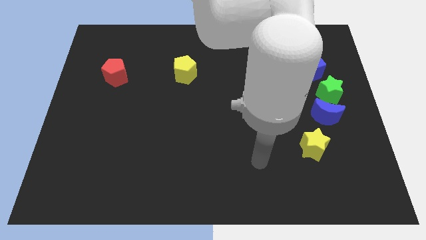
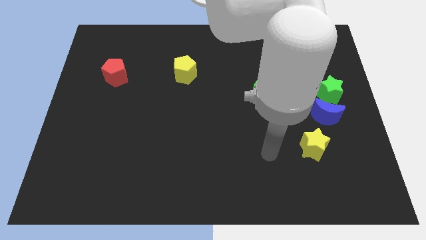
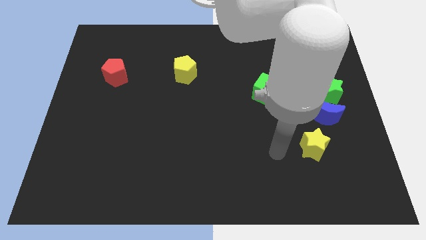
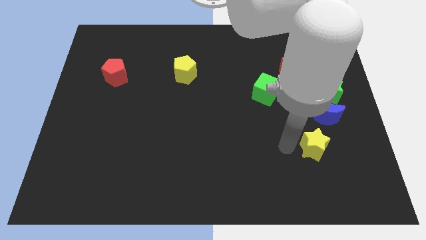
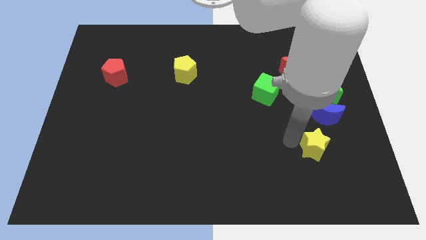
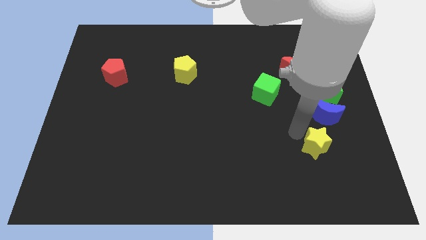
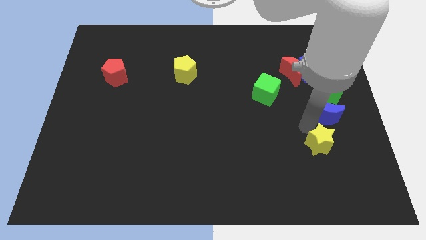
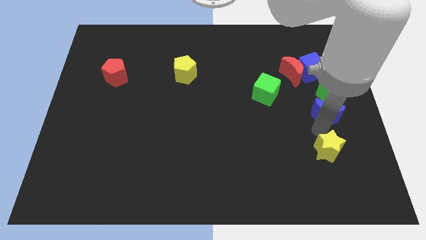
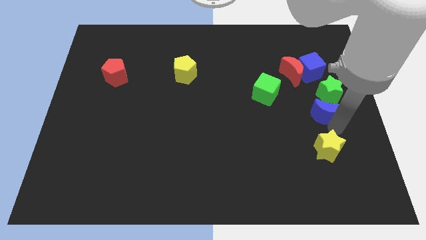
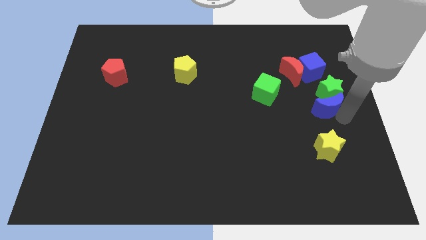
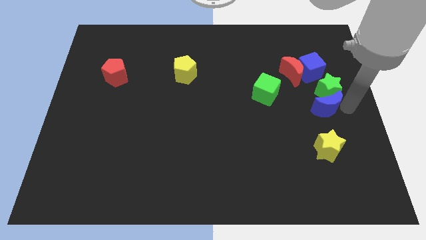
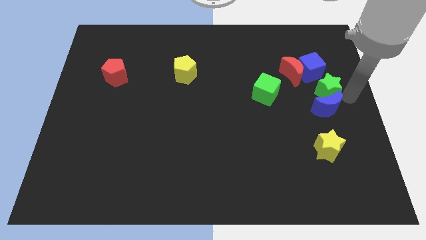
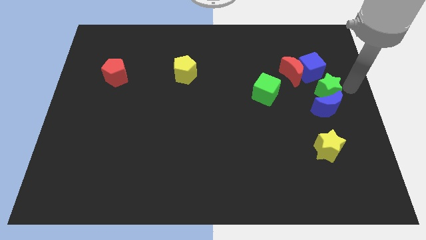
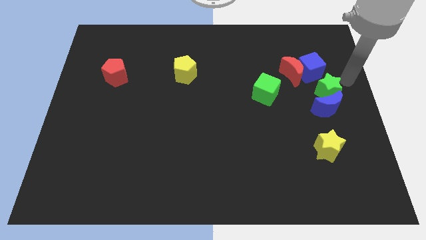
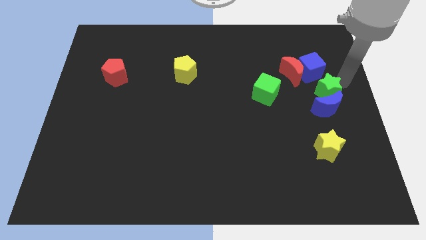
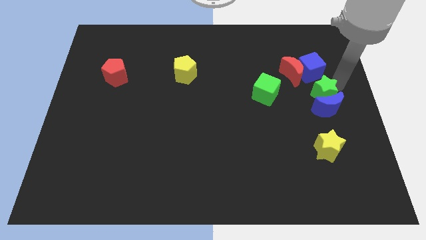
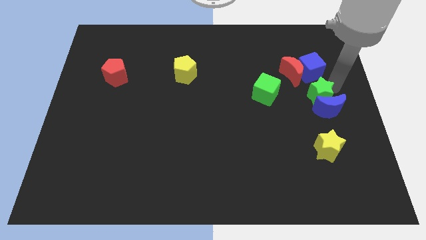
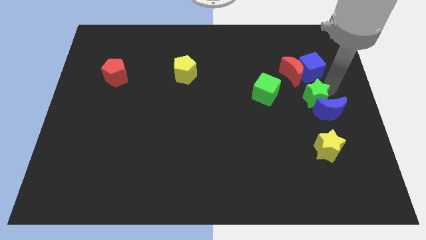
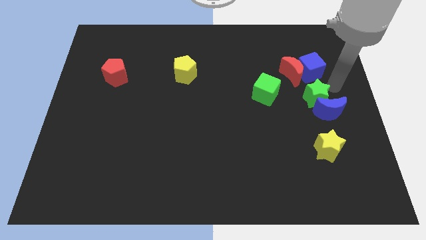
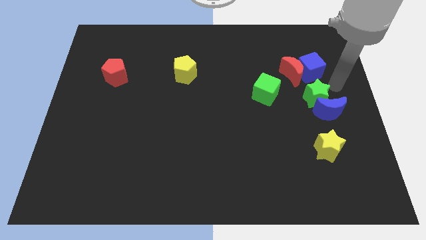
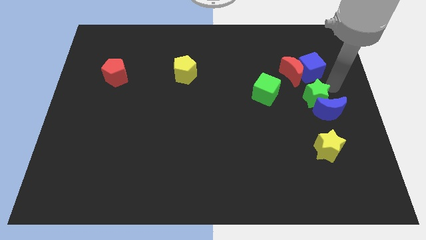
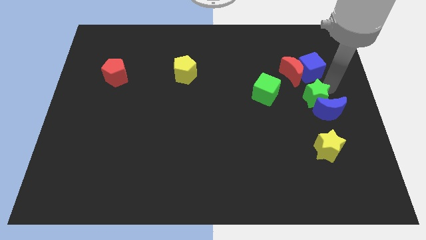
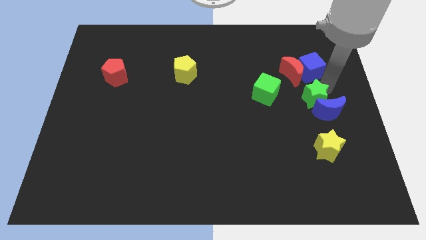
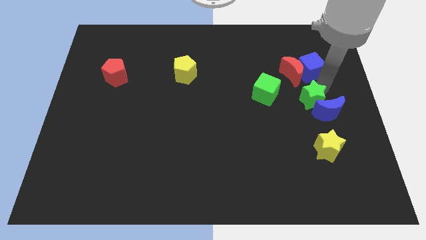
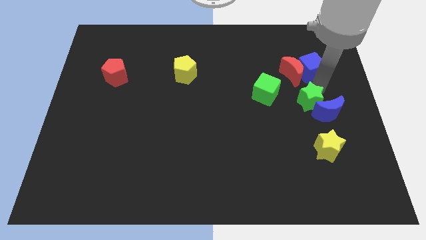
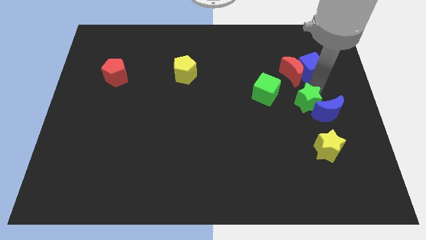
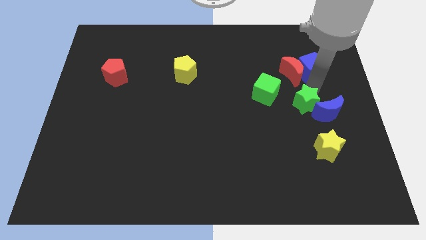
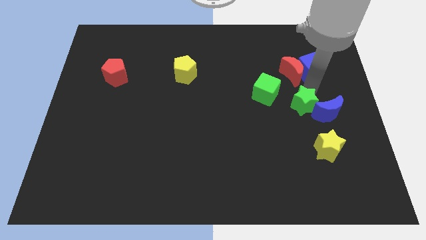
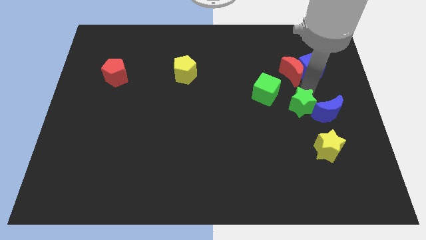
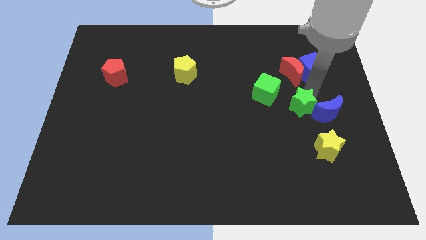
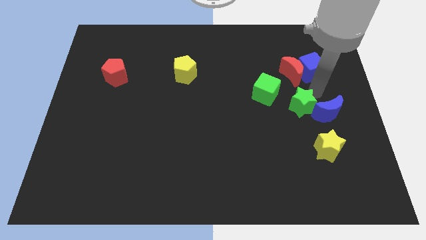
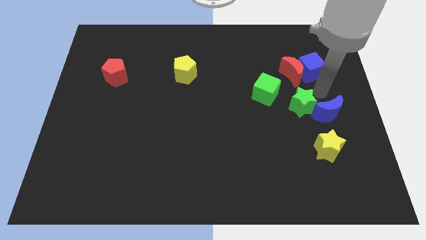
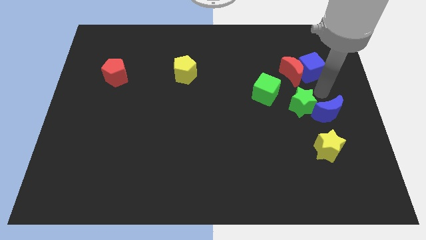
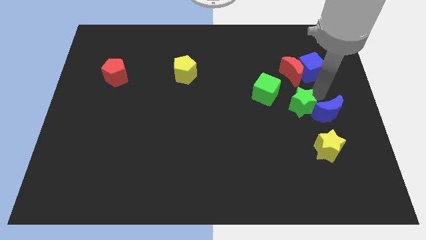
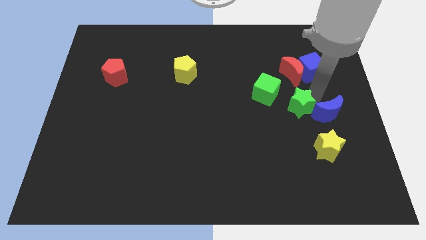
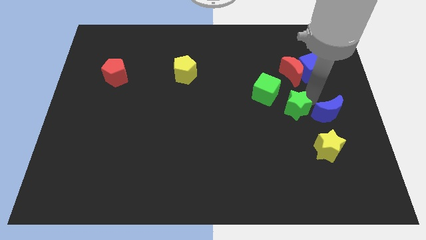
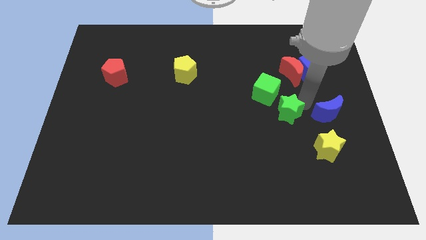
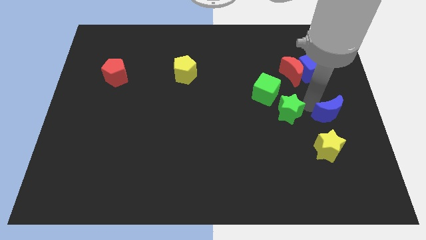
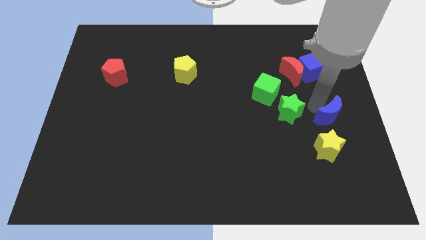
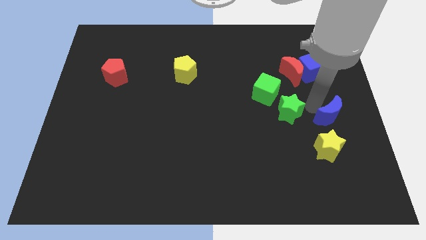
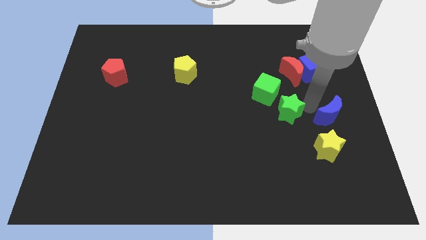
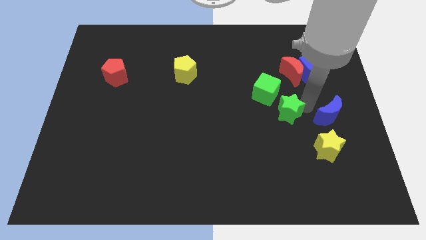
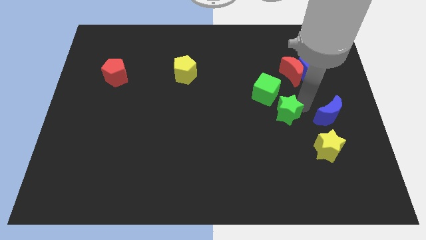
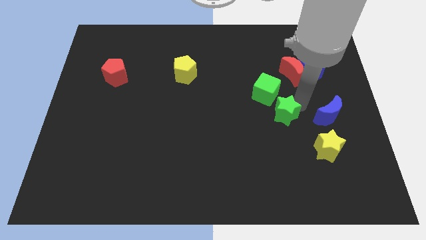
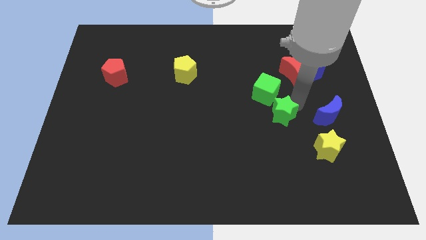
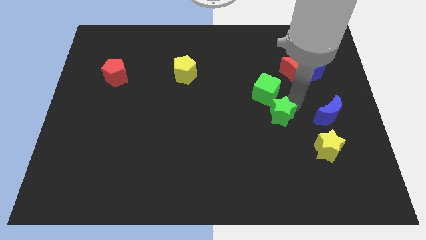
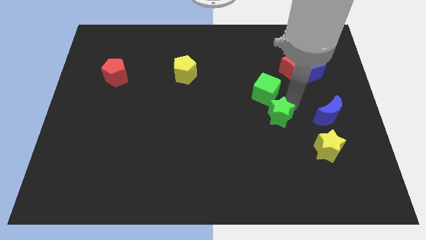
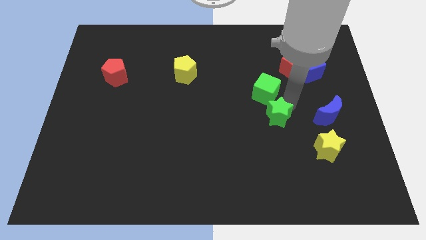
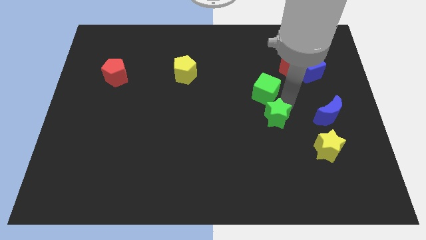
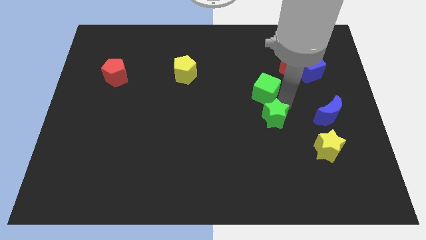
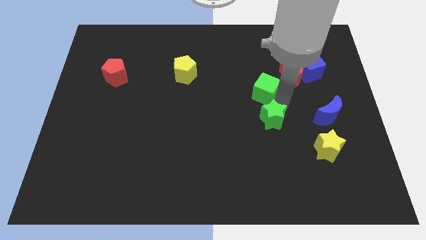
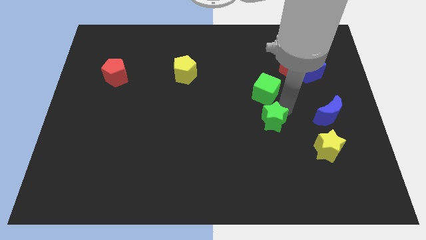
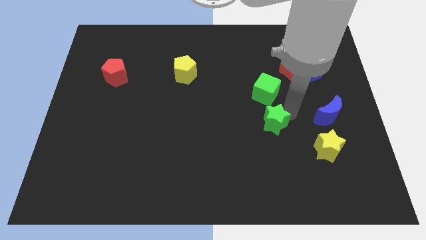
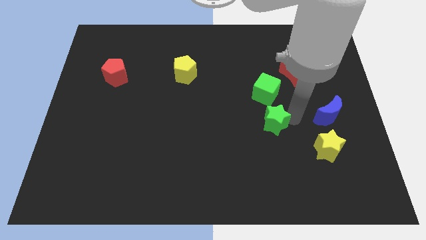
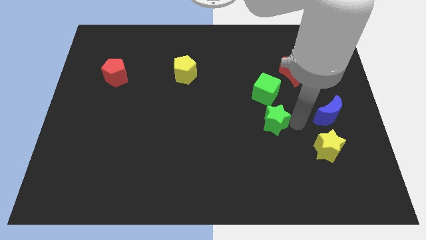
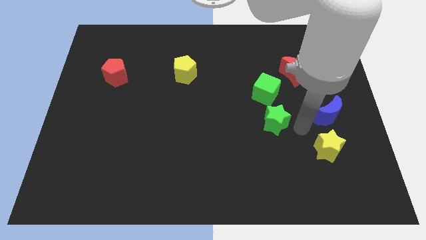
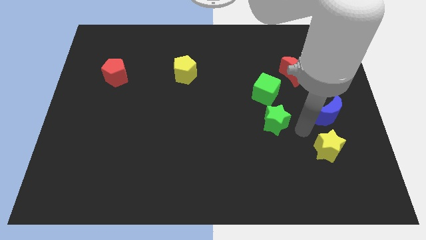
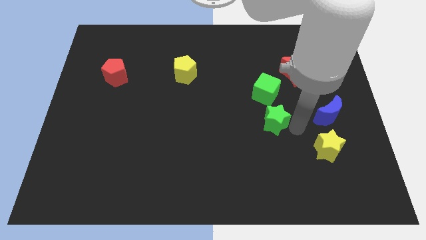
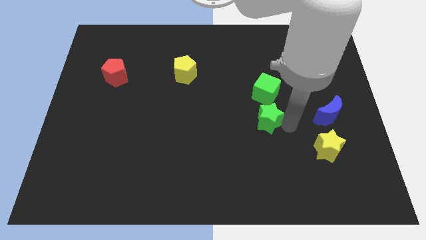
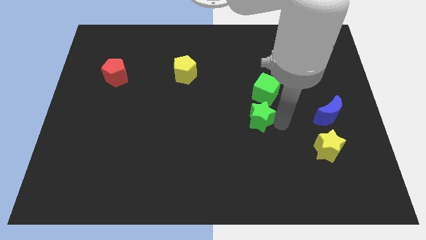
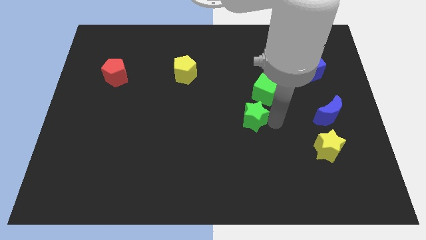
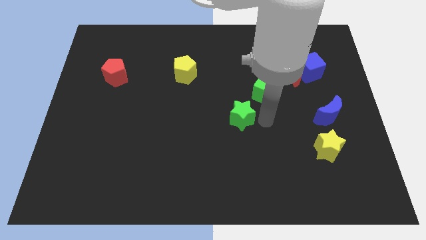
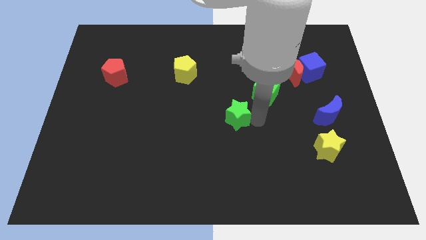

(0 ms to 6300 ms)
move the green star left

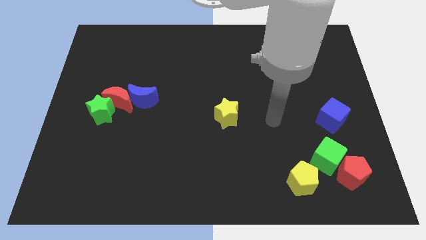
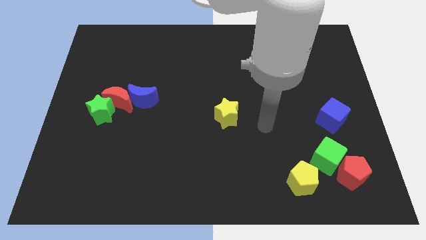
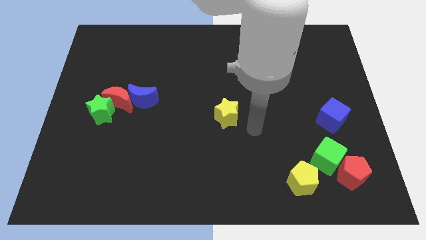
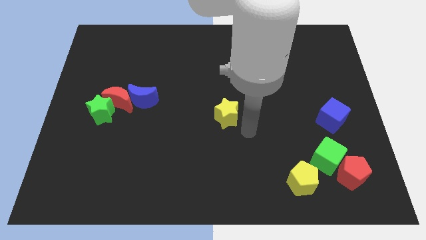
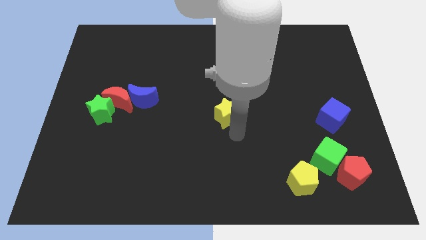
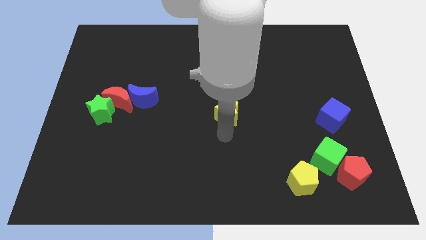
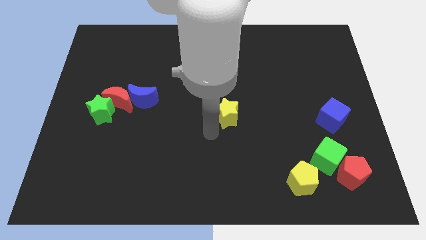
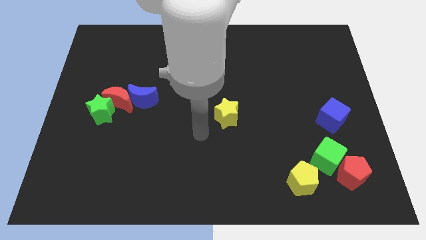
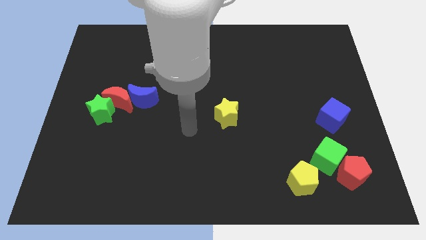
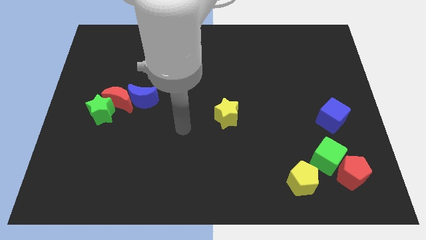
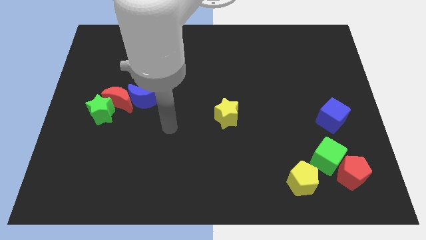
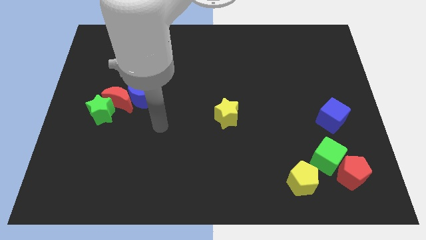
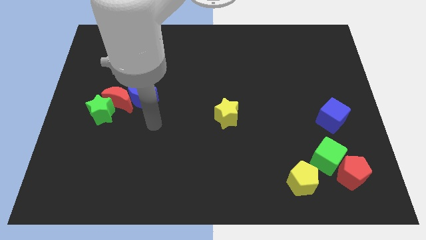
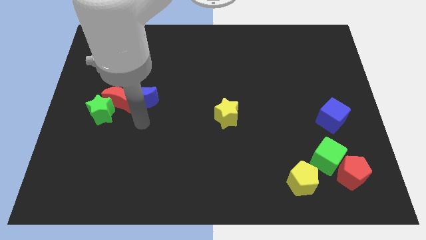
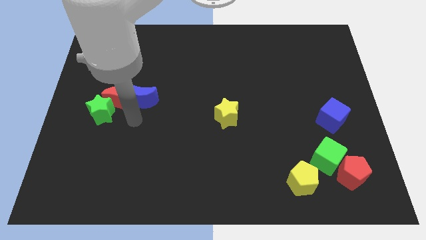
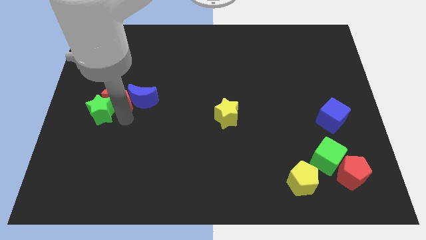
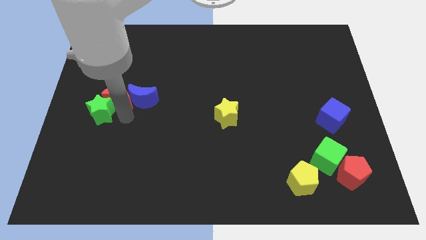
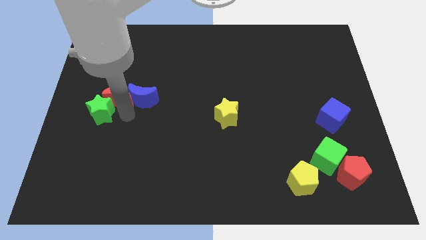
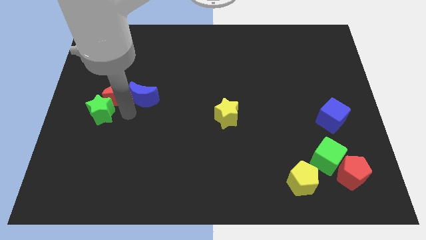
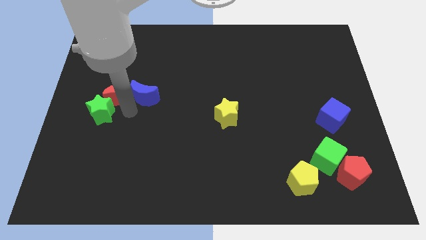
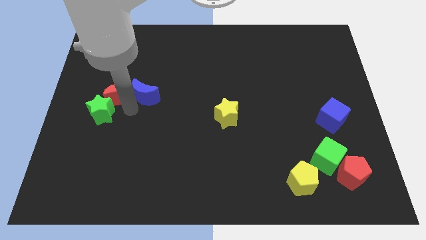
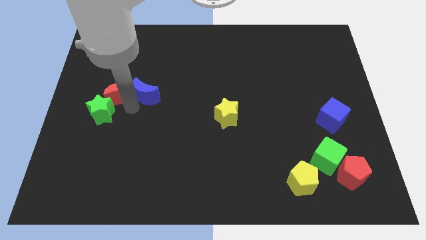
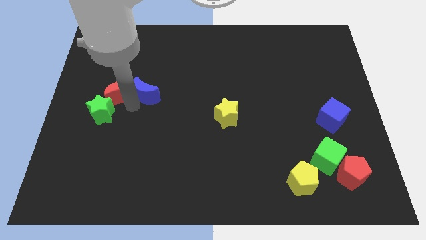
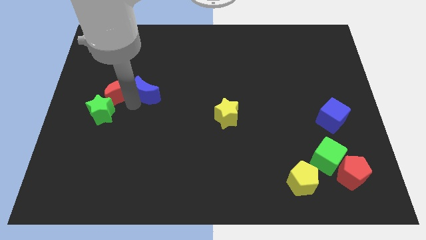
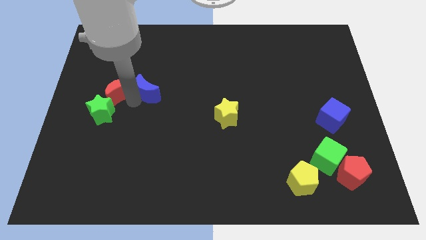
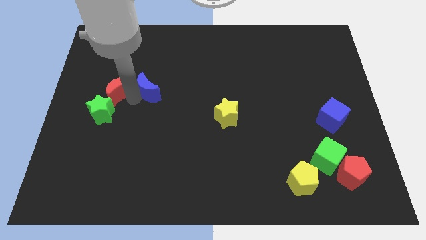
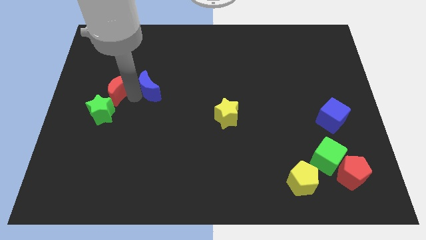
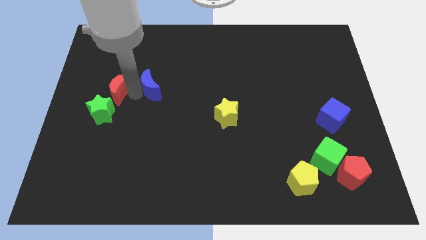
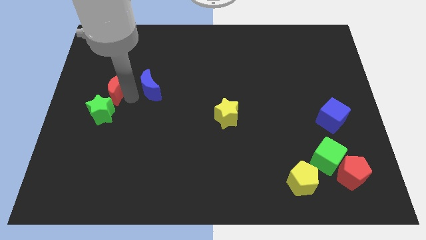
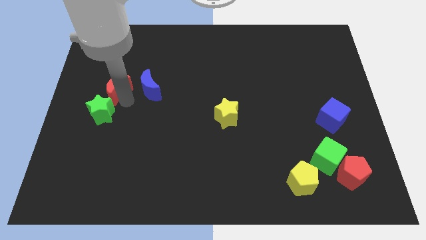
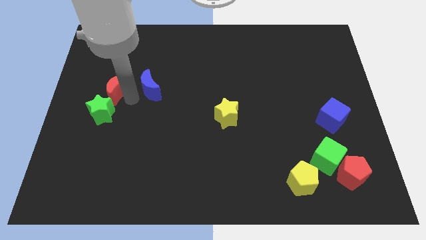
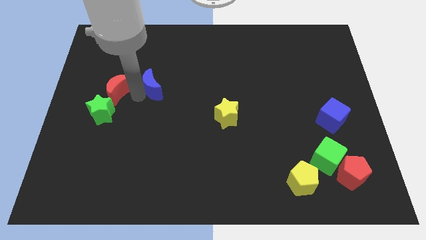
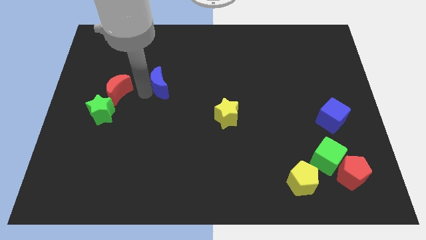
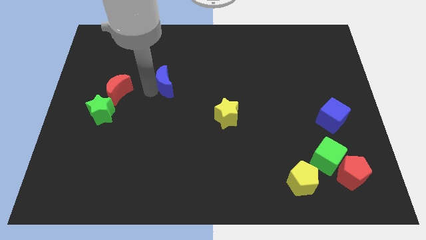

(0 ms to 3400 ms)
slide the blue moon up and then to the right a little
